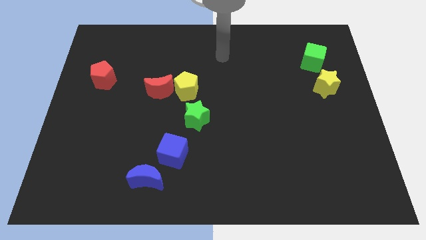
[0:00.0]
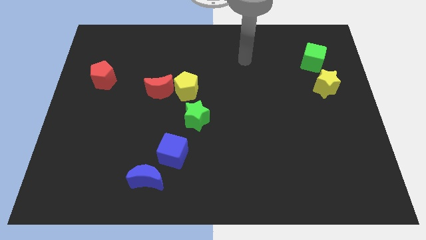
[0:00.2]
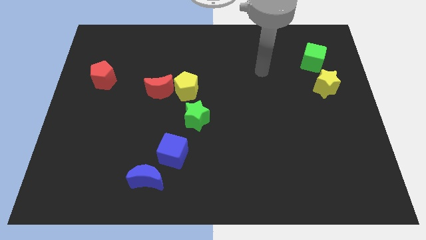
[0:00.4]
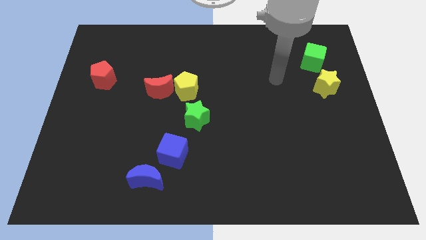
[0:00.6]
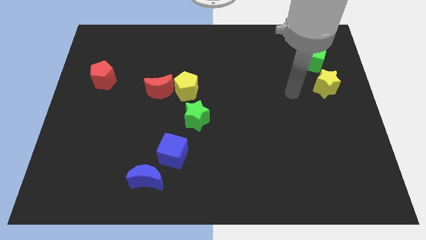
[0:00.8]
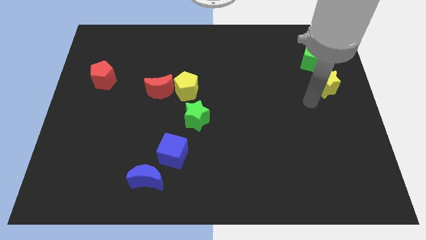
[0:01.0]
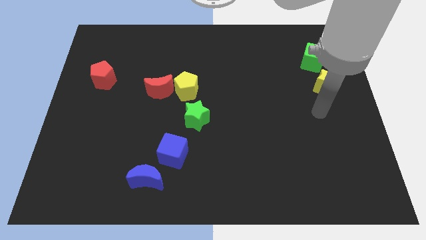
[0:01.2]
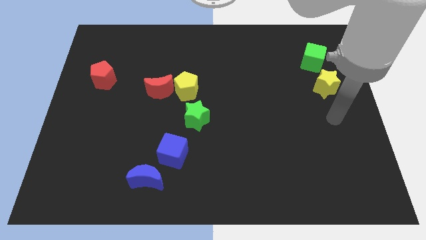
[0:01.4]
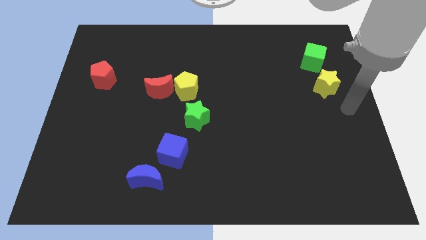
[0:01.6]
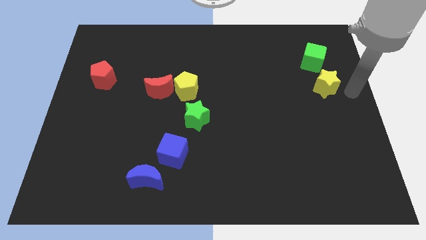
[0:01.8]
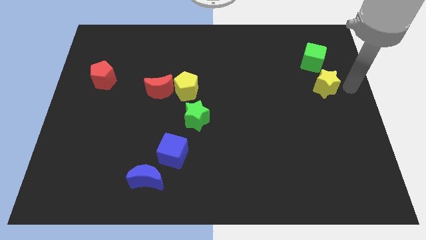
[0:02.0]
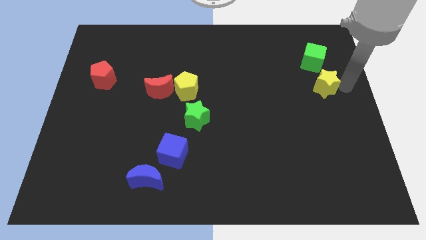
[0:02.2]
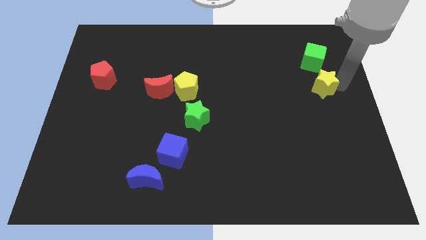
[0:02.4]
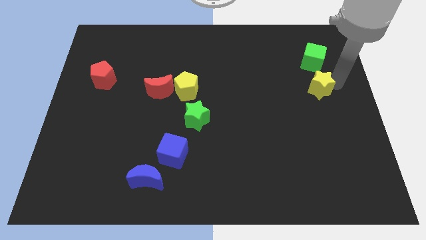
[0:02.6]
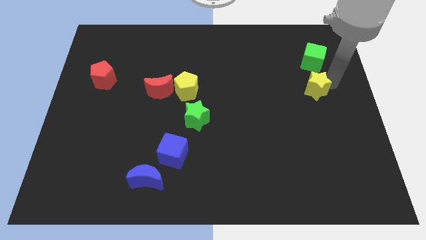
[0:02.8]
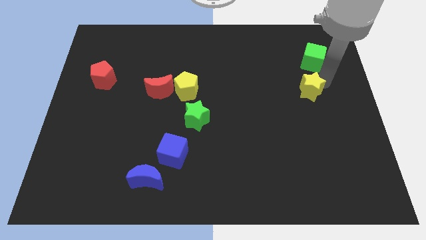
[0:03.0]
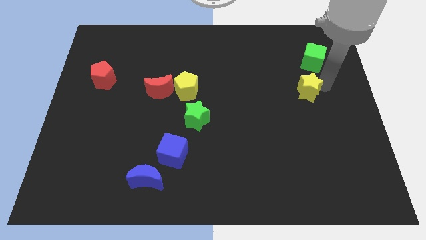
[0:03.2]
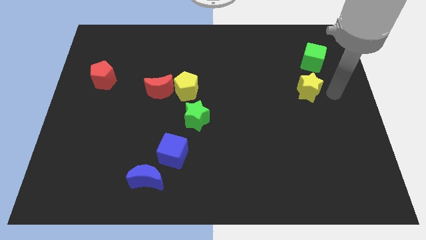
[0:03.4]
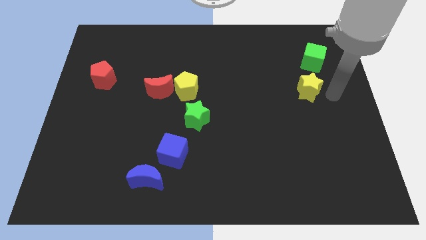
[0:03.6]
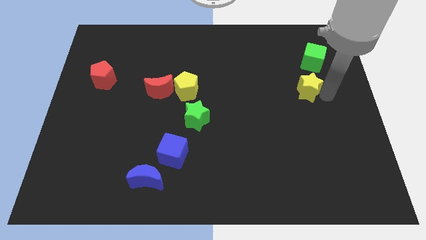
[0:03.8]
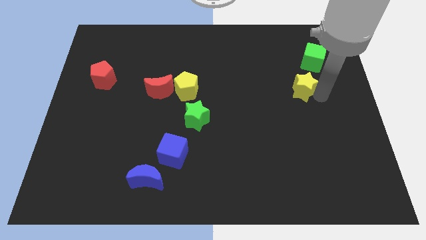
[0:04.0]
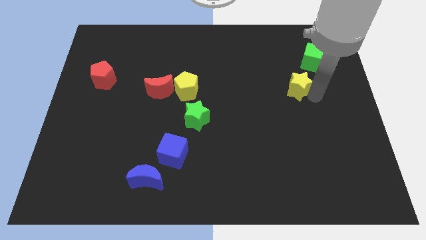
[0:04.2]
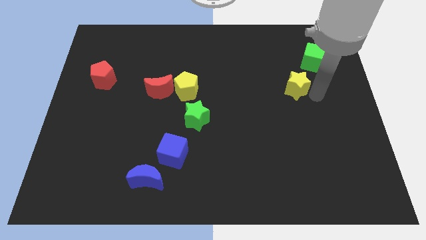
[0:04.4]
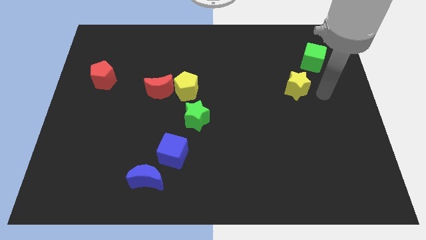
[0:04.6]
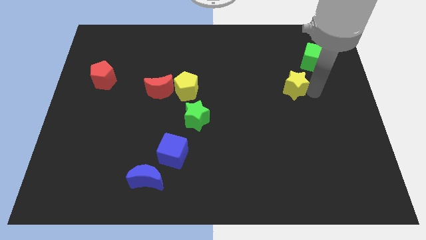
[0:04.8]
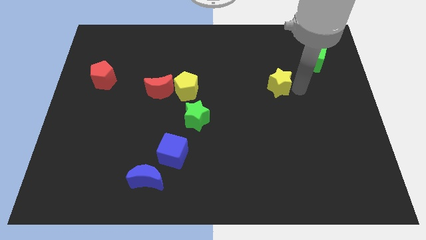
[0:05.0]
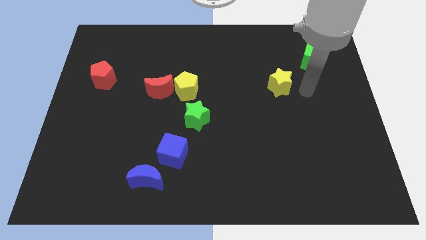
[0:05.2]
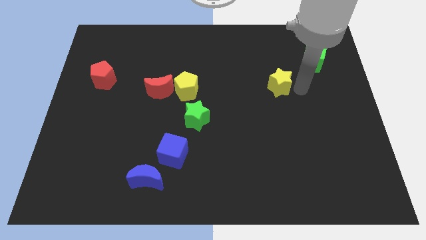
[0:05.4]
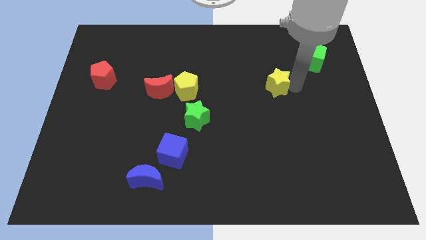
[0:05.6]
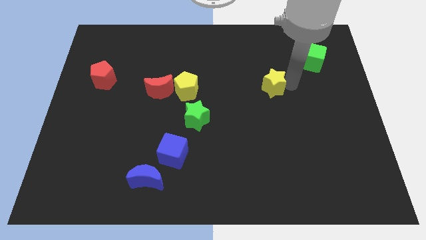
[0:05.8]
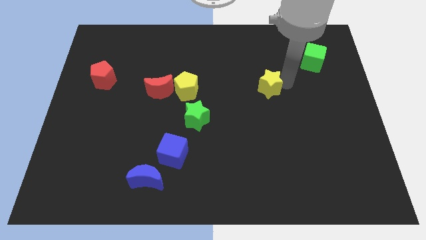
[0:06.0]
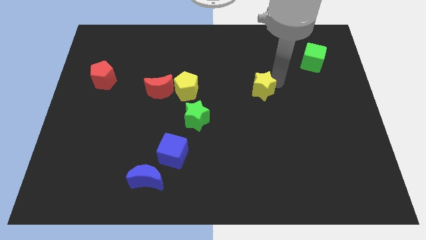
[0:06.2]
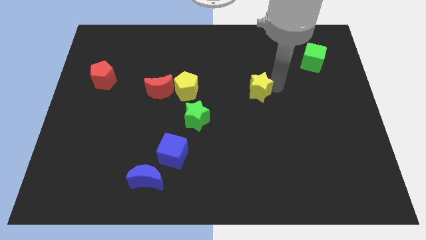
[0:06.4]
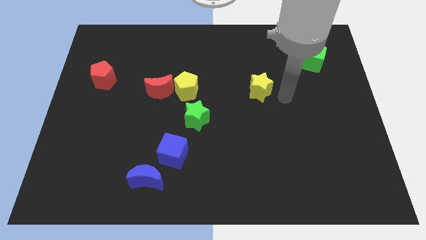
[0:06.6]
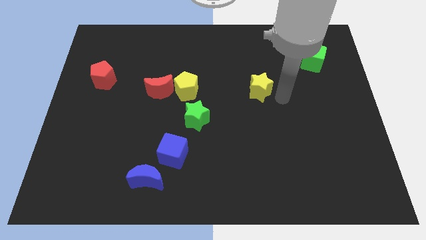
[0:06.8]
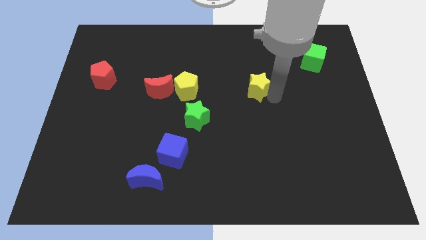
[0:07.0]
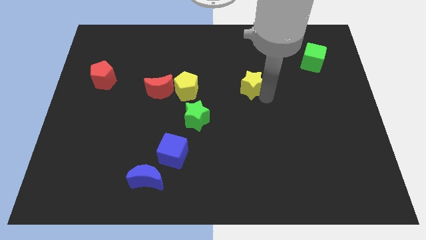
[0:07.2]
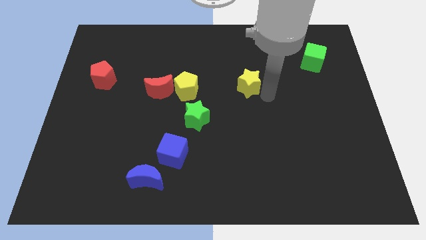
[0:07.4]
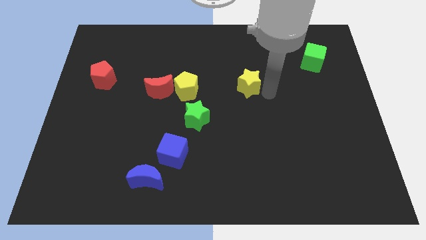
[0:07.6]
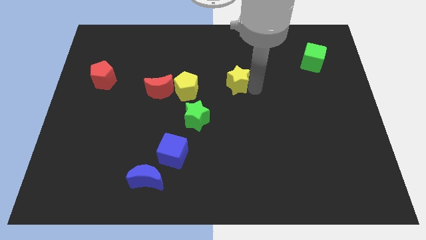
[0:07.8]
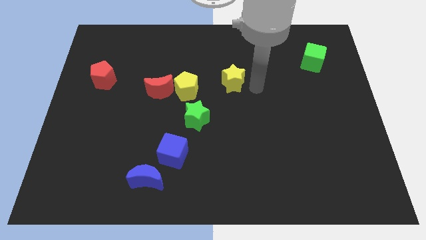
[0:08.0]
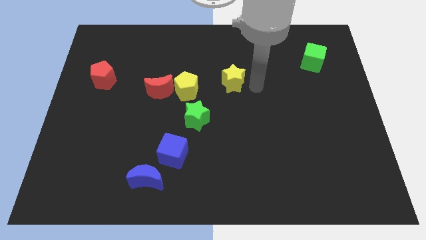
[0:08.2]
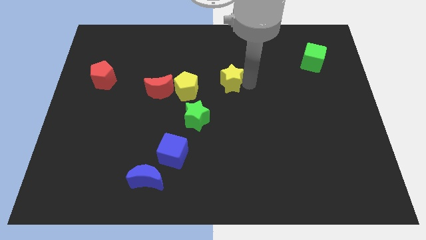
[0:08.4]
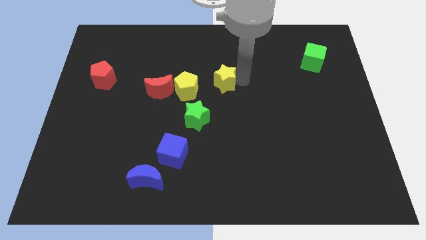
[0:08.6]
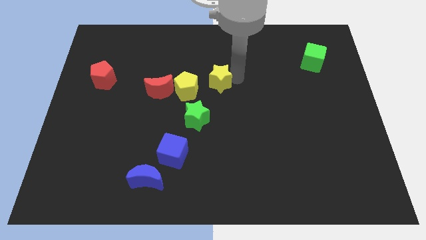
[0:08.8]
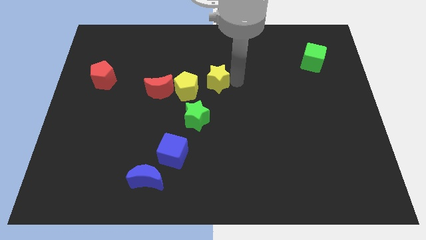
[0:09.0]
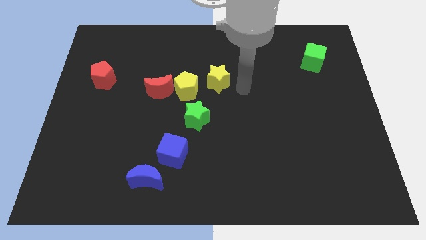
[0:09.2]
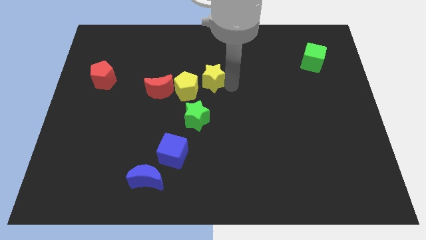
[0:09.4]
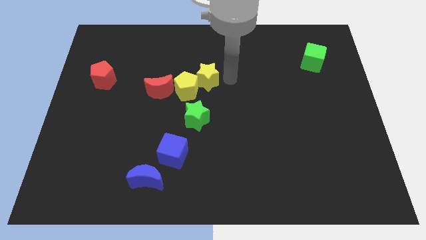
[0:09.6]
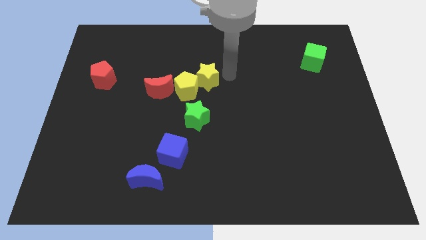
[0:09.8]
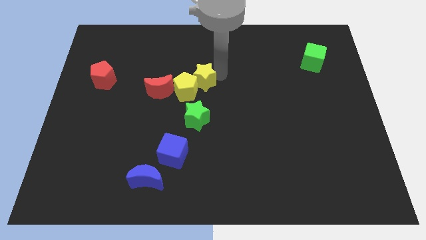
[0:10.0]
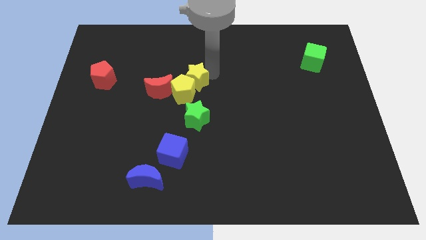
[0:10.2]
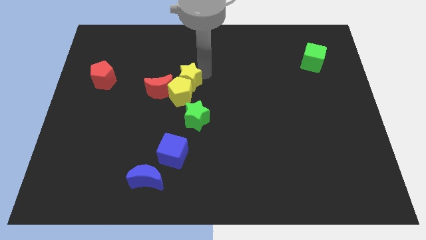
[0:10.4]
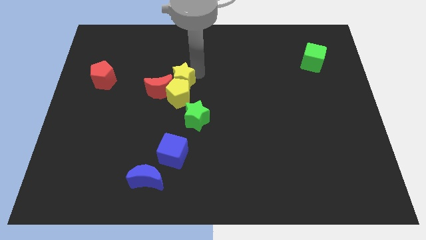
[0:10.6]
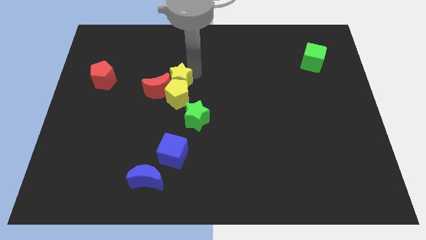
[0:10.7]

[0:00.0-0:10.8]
move the yellow star towards the red moon
